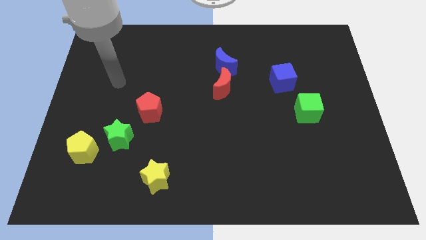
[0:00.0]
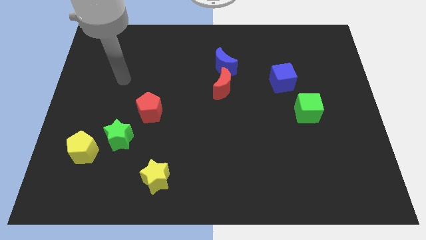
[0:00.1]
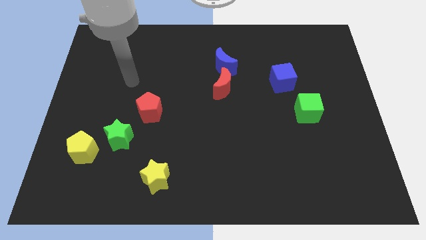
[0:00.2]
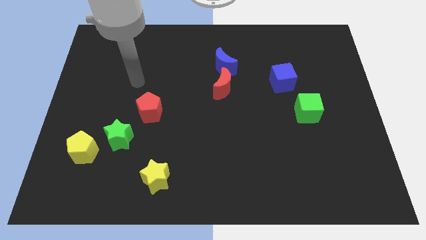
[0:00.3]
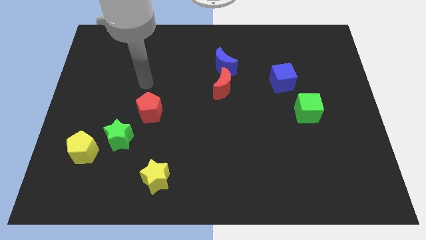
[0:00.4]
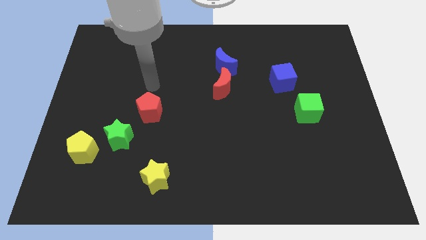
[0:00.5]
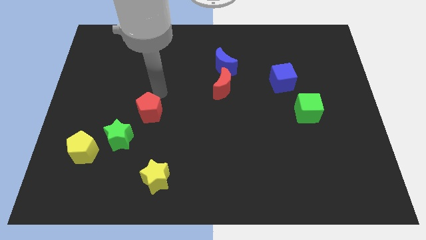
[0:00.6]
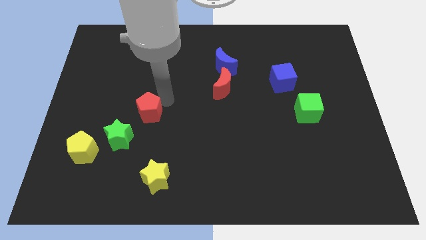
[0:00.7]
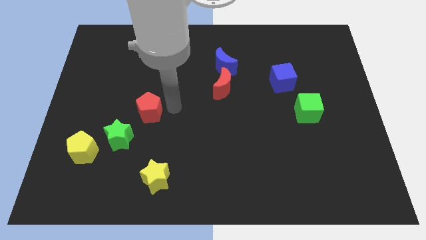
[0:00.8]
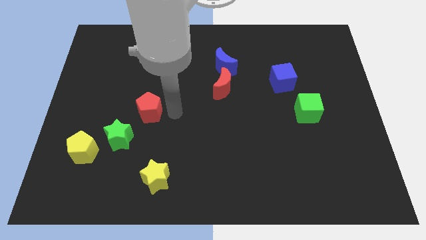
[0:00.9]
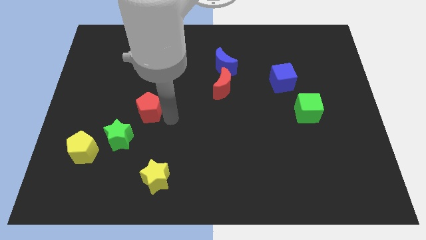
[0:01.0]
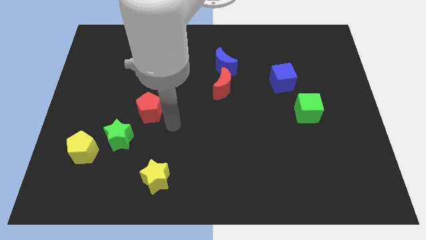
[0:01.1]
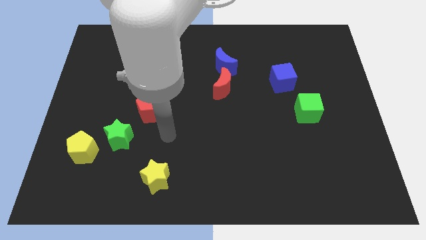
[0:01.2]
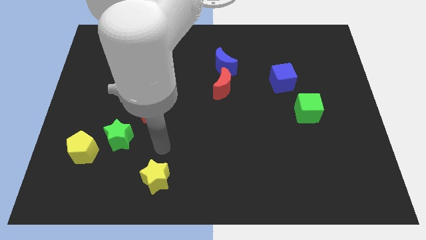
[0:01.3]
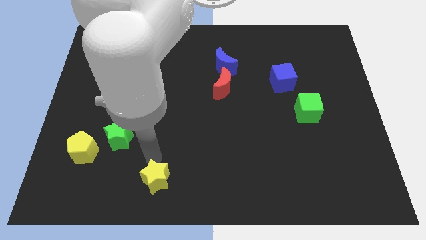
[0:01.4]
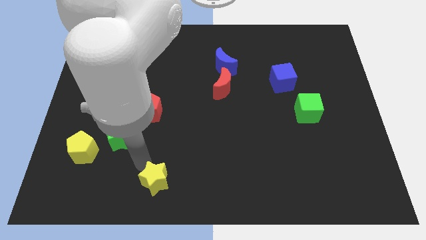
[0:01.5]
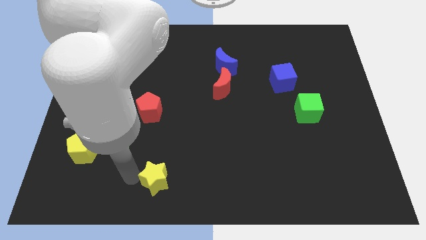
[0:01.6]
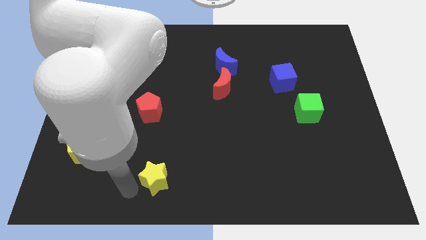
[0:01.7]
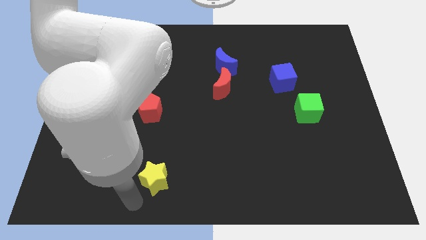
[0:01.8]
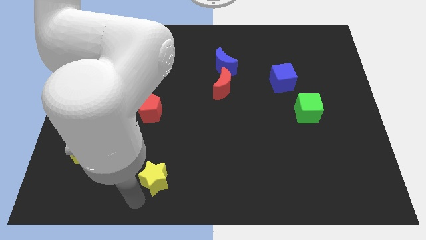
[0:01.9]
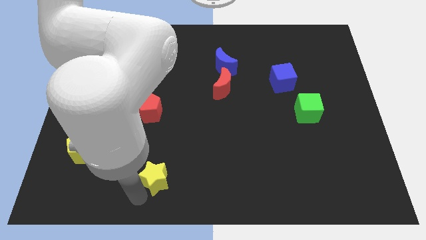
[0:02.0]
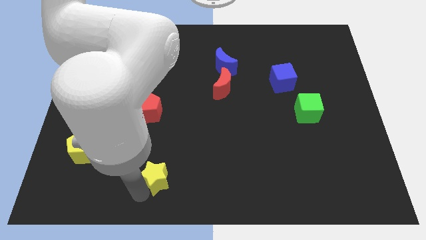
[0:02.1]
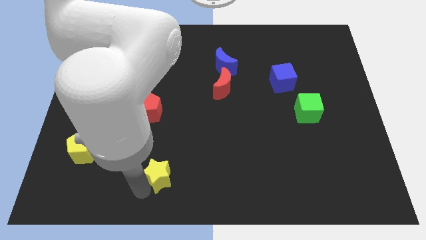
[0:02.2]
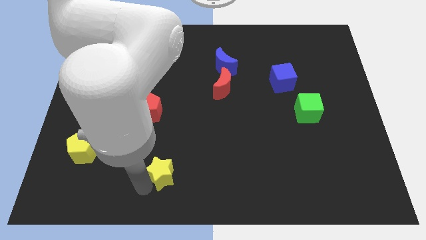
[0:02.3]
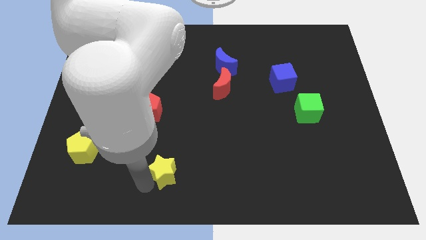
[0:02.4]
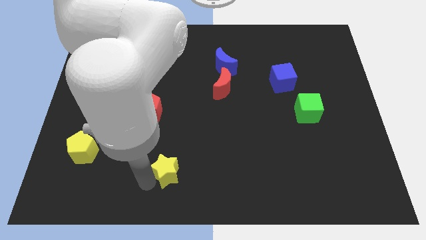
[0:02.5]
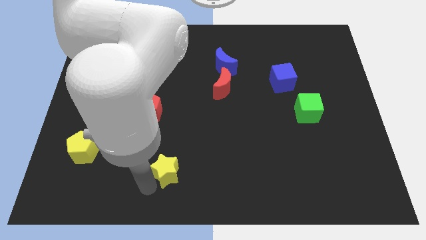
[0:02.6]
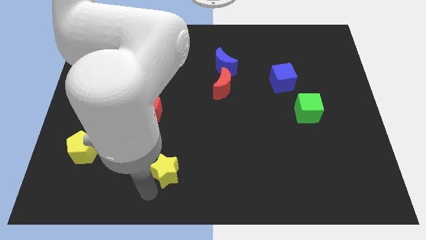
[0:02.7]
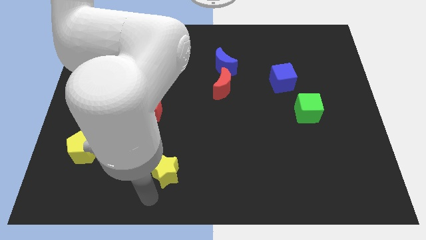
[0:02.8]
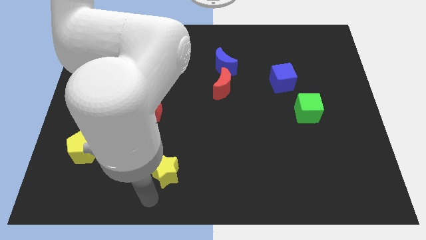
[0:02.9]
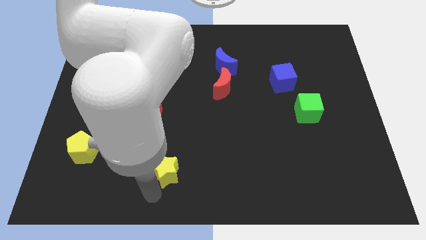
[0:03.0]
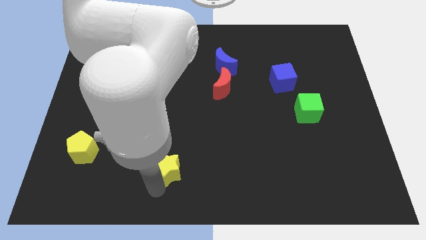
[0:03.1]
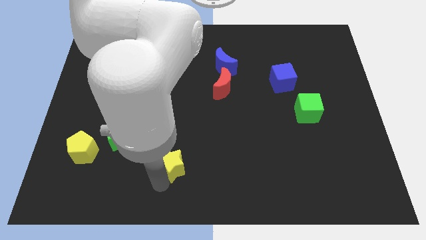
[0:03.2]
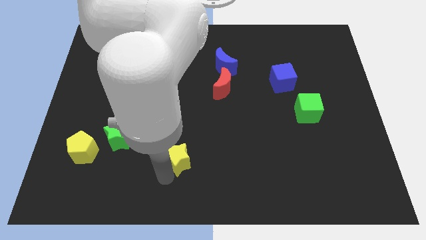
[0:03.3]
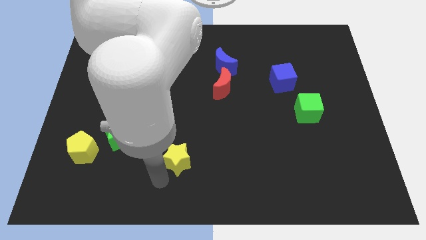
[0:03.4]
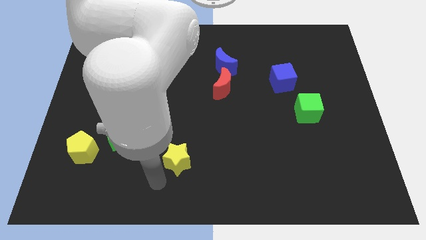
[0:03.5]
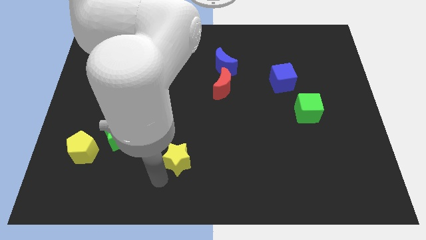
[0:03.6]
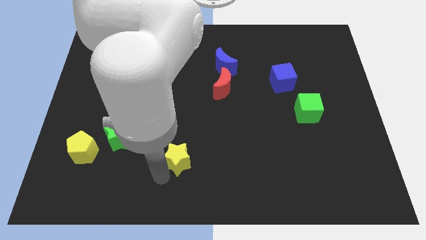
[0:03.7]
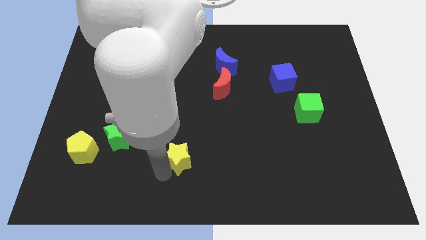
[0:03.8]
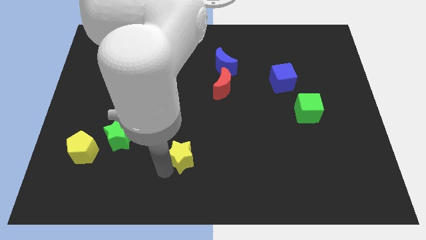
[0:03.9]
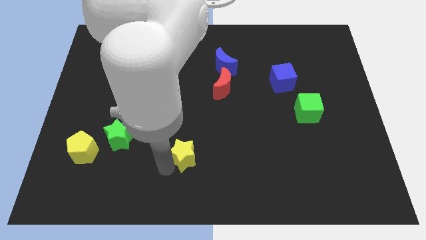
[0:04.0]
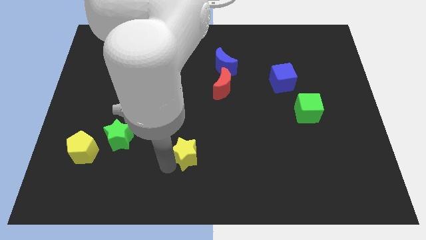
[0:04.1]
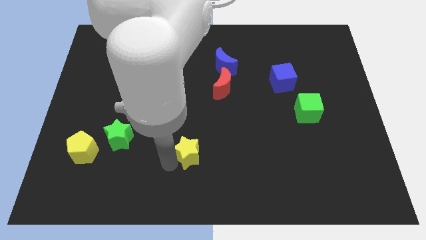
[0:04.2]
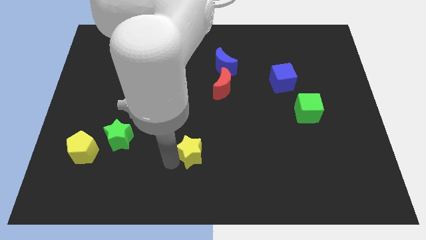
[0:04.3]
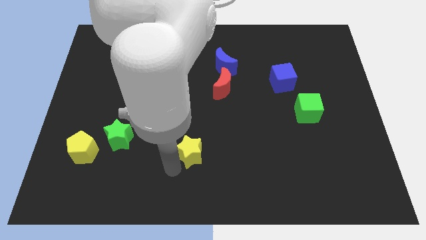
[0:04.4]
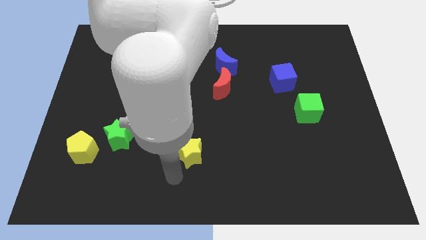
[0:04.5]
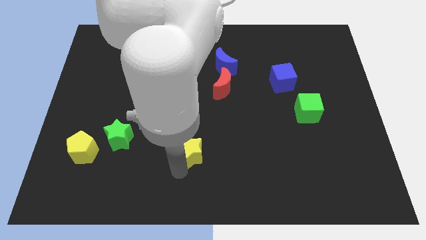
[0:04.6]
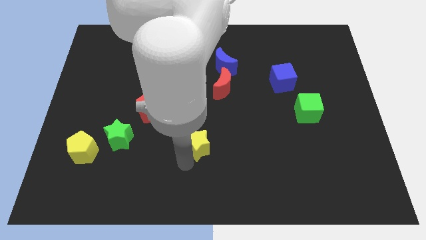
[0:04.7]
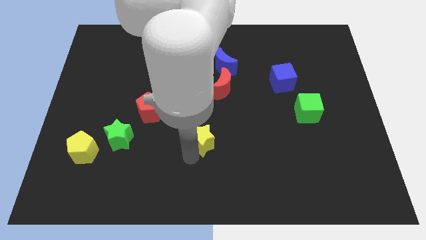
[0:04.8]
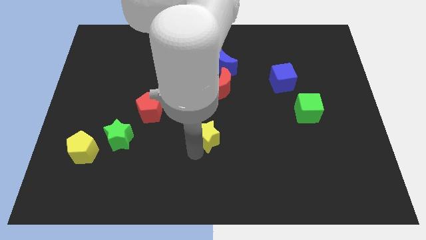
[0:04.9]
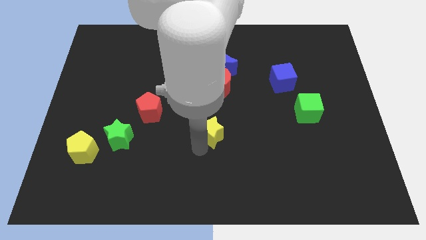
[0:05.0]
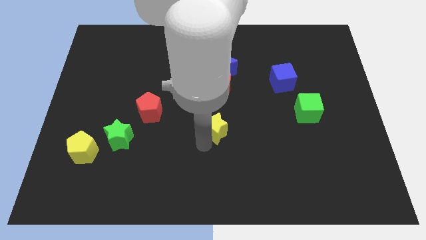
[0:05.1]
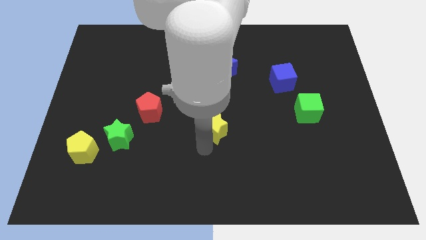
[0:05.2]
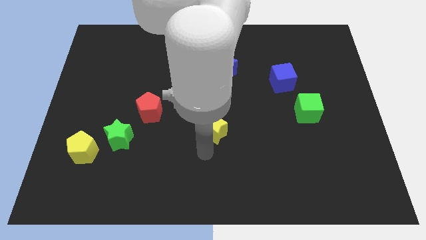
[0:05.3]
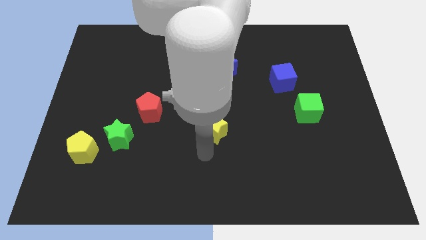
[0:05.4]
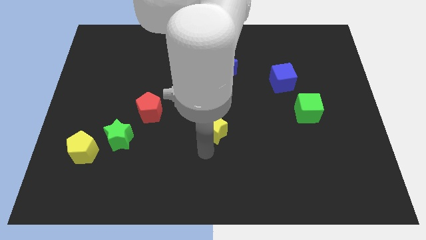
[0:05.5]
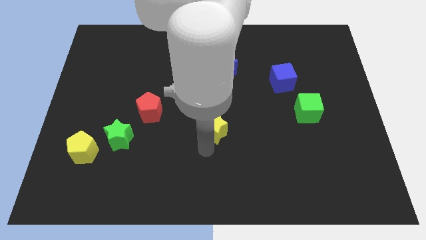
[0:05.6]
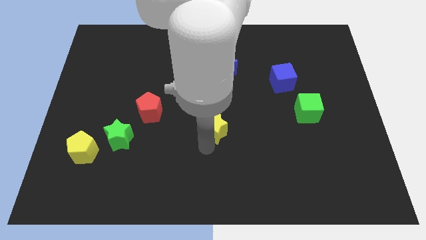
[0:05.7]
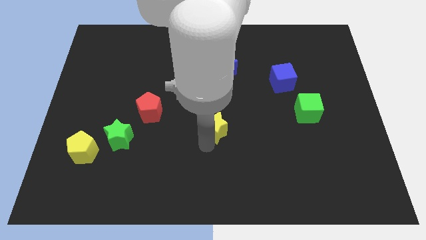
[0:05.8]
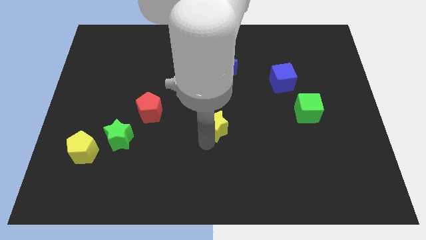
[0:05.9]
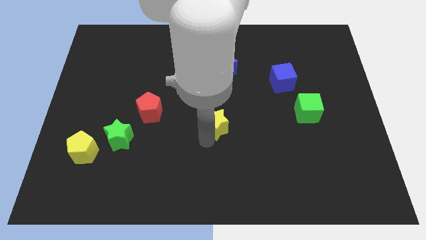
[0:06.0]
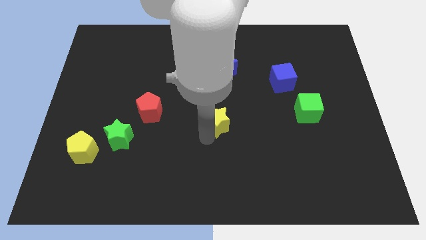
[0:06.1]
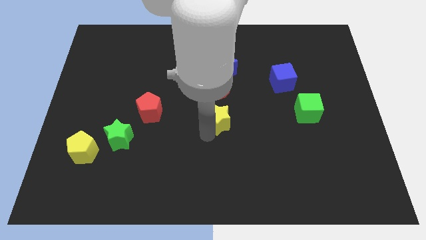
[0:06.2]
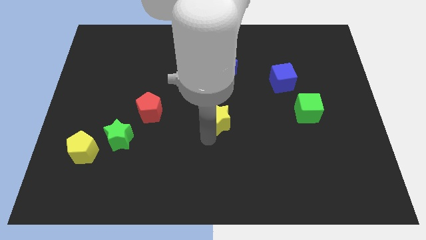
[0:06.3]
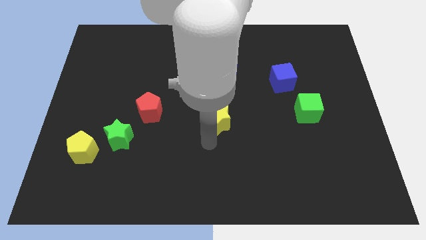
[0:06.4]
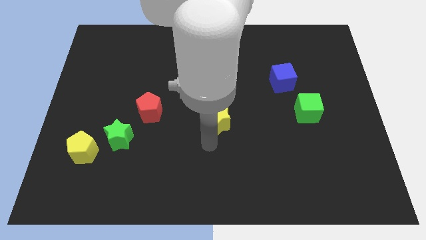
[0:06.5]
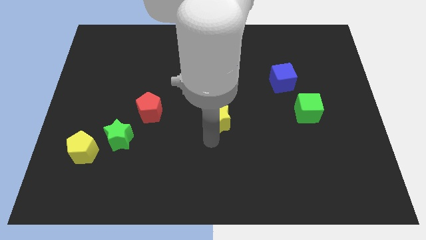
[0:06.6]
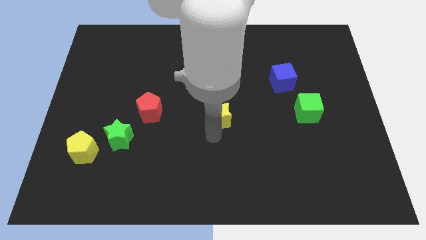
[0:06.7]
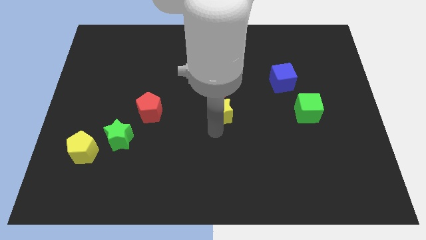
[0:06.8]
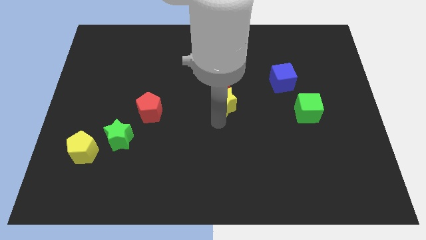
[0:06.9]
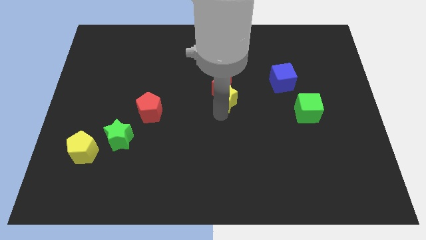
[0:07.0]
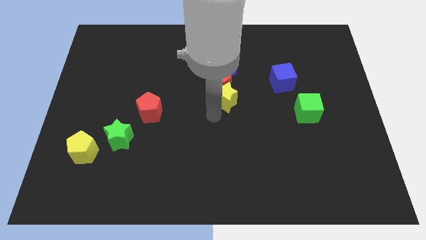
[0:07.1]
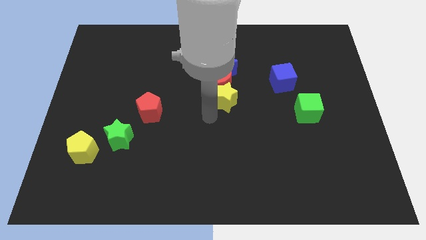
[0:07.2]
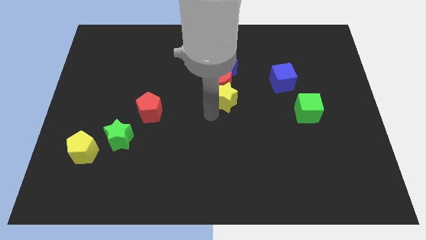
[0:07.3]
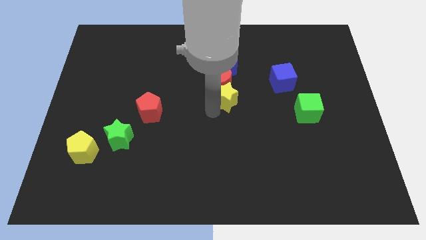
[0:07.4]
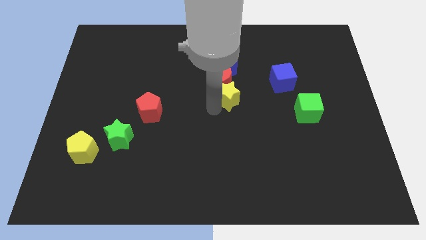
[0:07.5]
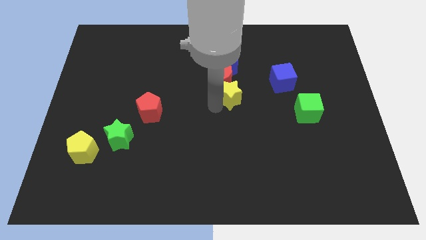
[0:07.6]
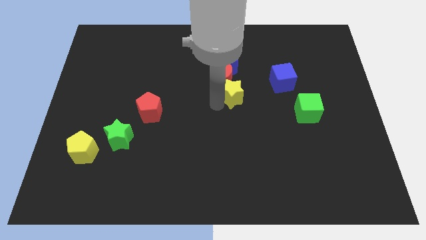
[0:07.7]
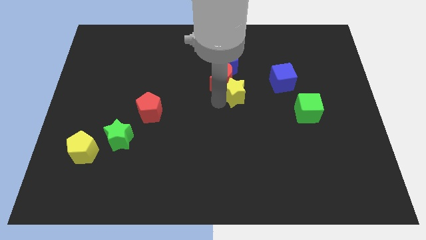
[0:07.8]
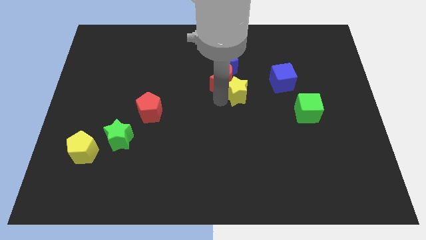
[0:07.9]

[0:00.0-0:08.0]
push the yellow star diagonally down and to the right of the blue moon
